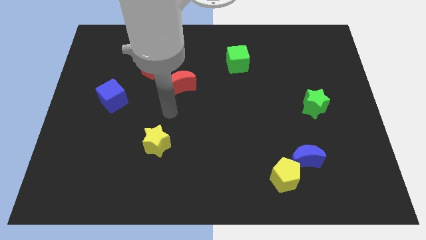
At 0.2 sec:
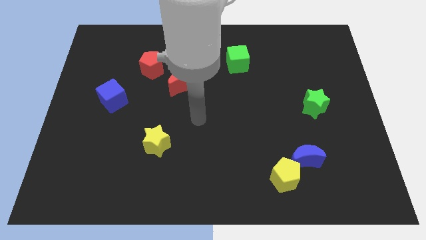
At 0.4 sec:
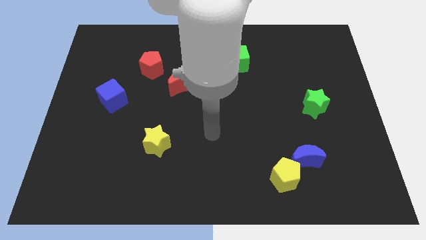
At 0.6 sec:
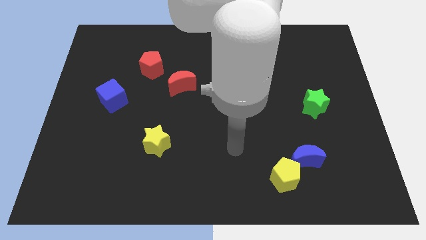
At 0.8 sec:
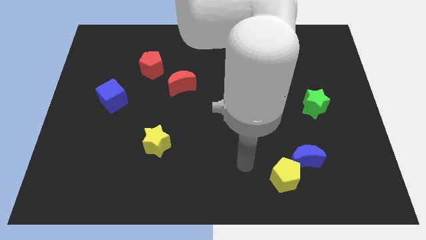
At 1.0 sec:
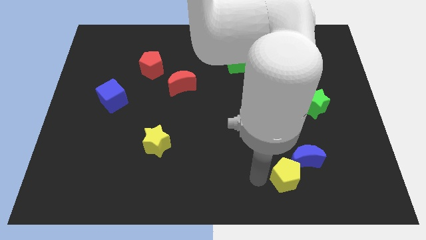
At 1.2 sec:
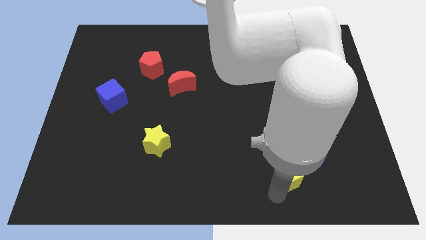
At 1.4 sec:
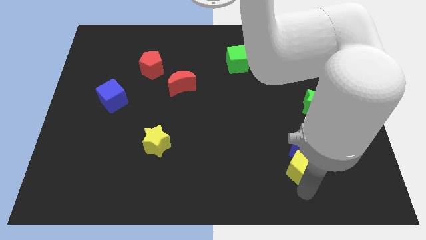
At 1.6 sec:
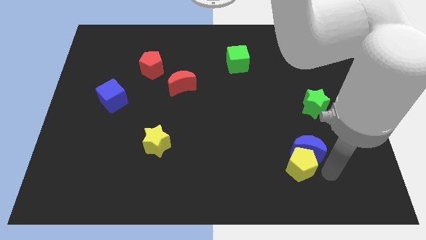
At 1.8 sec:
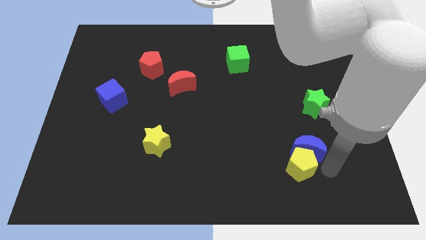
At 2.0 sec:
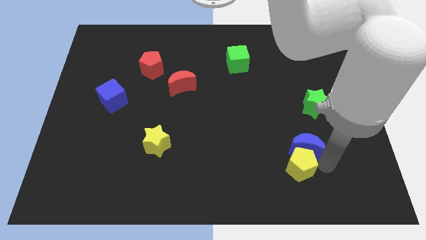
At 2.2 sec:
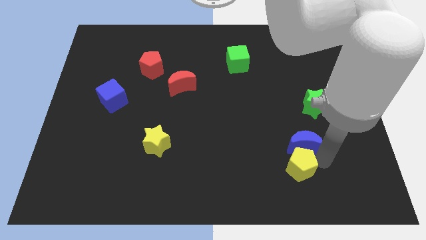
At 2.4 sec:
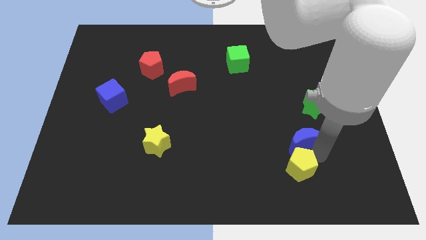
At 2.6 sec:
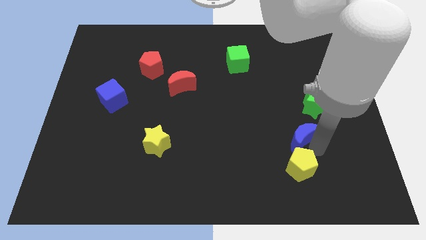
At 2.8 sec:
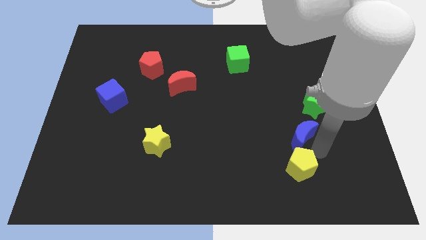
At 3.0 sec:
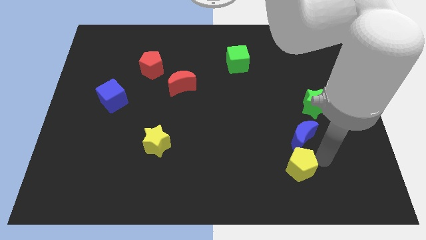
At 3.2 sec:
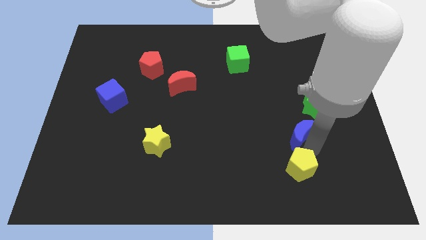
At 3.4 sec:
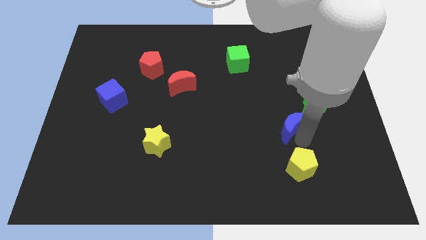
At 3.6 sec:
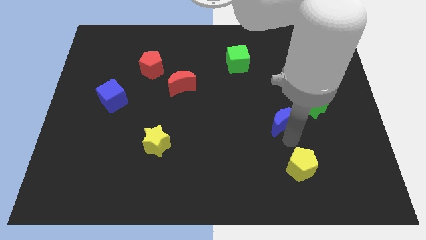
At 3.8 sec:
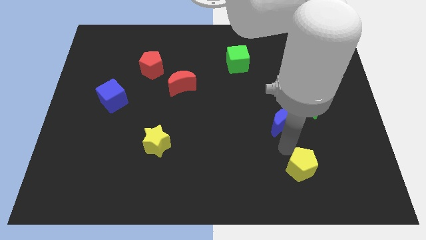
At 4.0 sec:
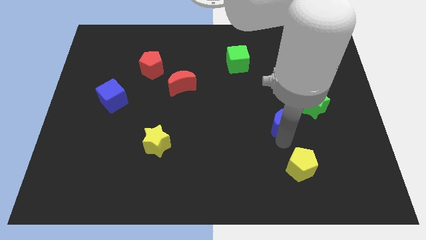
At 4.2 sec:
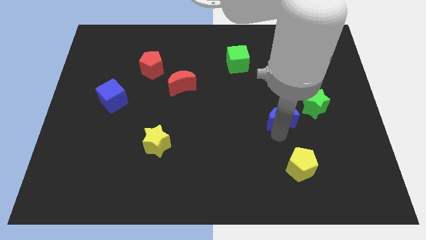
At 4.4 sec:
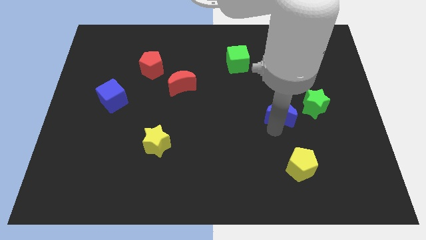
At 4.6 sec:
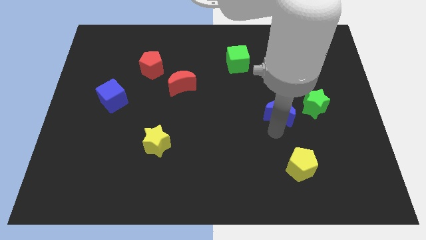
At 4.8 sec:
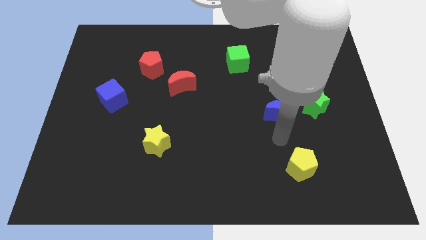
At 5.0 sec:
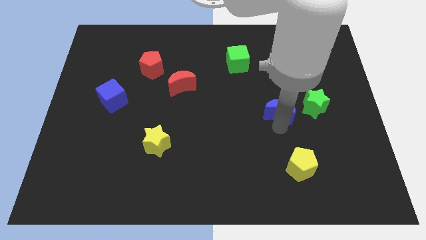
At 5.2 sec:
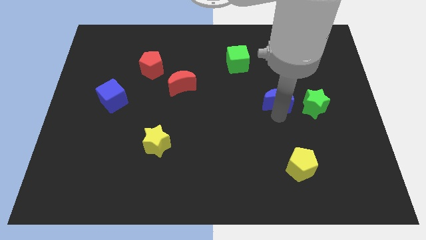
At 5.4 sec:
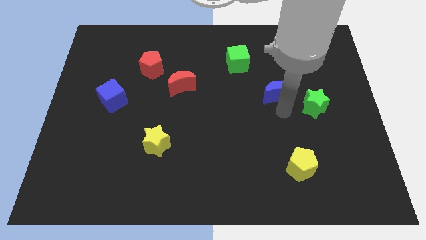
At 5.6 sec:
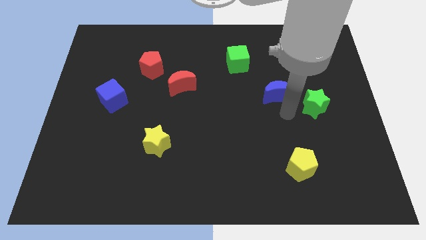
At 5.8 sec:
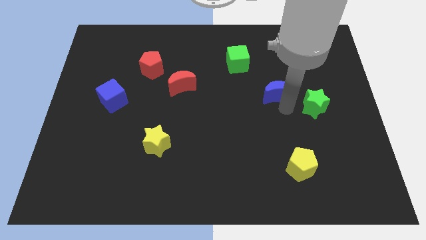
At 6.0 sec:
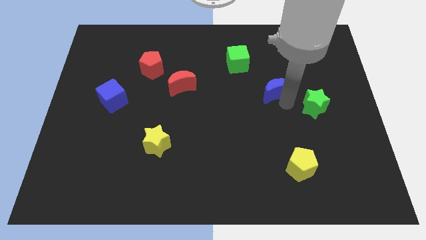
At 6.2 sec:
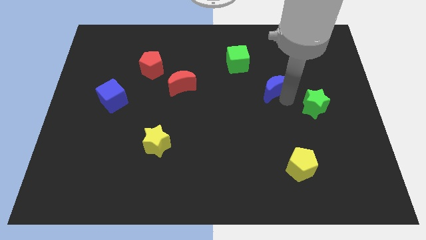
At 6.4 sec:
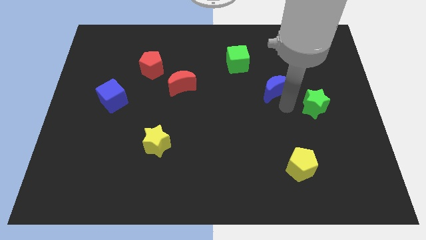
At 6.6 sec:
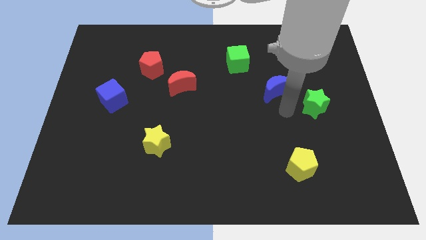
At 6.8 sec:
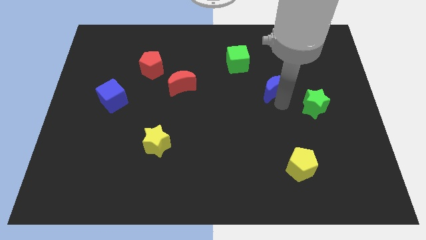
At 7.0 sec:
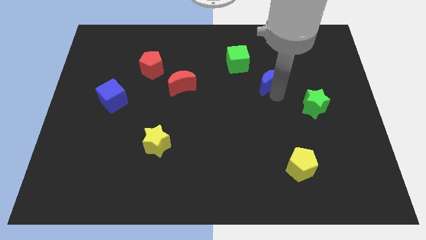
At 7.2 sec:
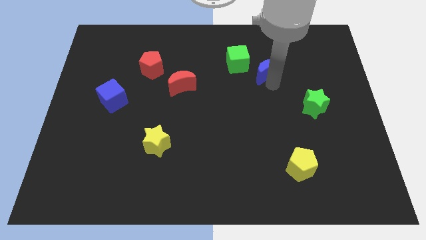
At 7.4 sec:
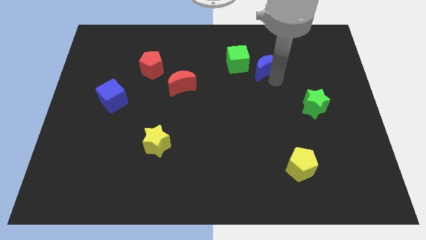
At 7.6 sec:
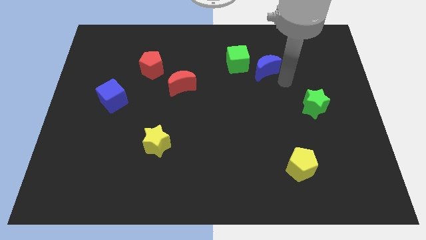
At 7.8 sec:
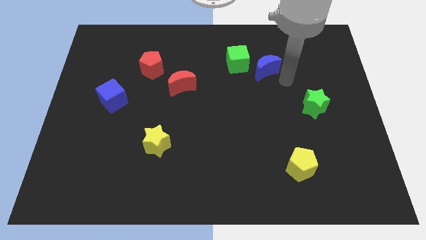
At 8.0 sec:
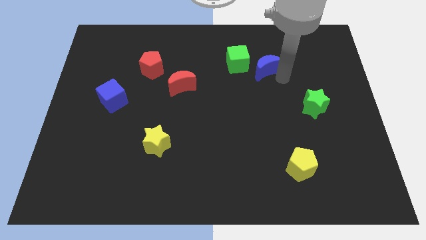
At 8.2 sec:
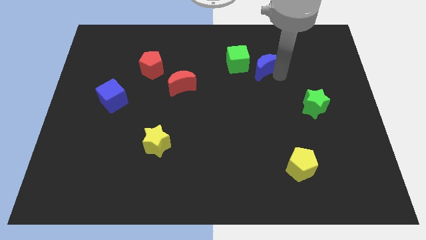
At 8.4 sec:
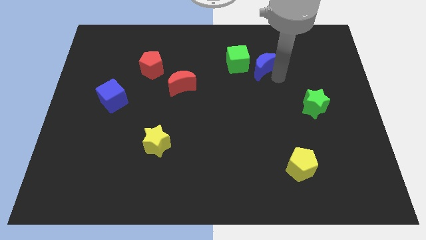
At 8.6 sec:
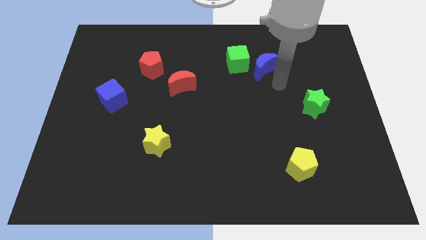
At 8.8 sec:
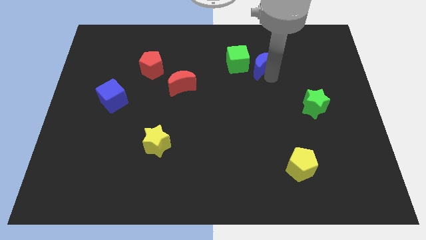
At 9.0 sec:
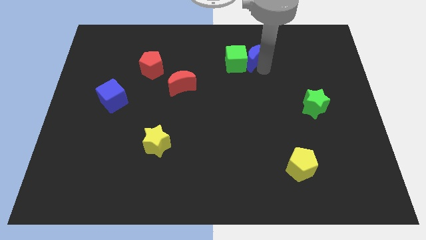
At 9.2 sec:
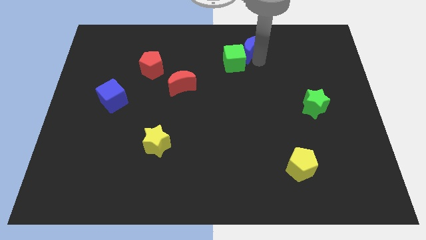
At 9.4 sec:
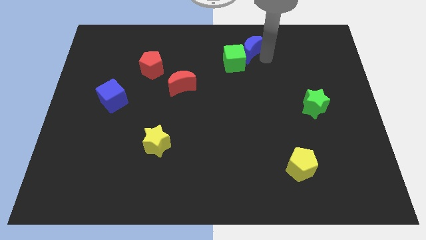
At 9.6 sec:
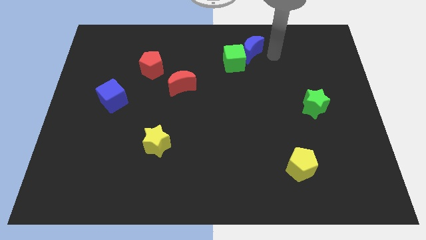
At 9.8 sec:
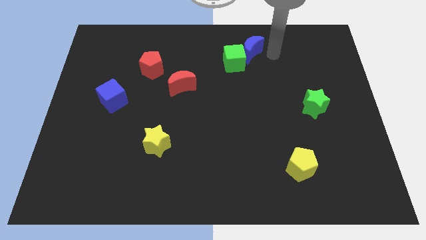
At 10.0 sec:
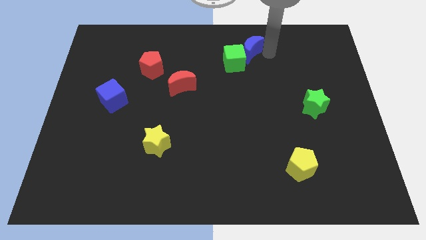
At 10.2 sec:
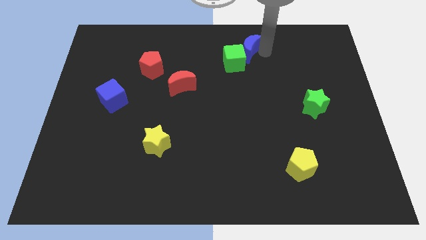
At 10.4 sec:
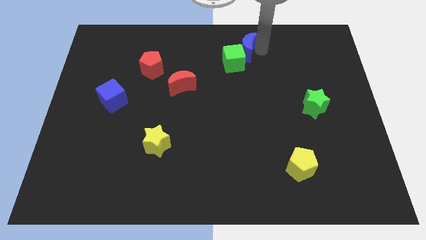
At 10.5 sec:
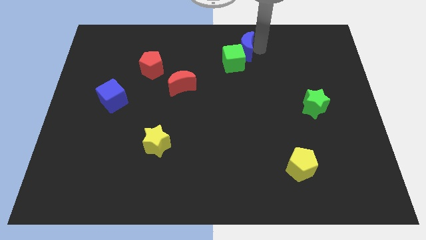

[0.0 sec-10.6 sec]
move the blue moon to the top side

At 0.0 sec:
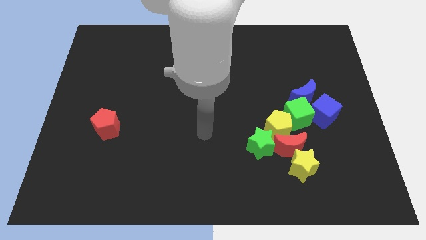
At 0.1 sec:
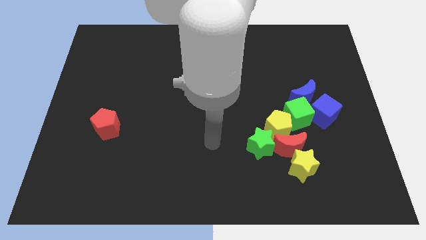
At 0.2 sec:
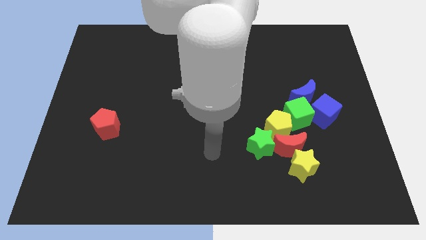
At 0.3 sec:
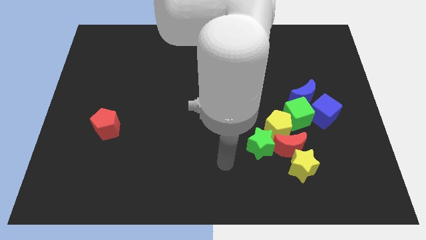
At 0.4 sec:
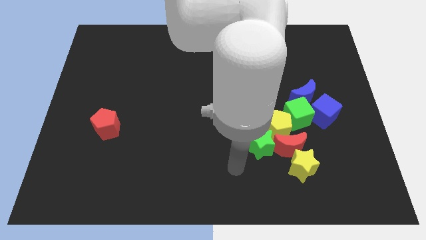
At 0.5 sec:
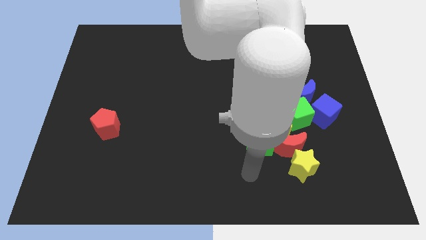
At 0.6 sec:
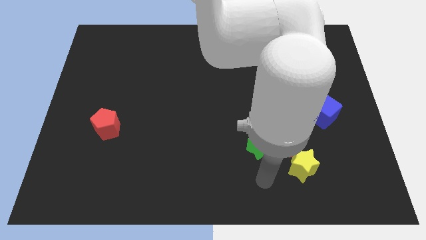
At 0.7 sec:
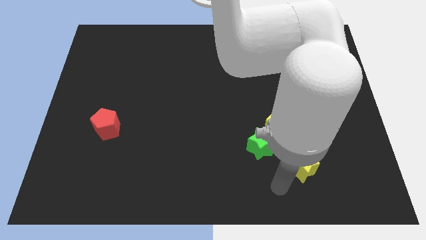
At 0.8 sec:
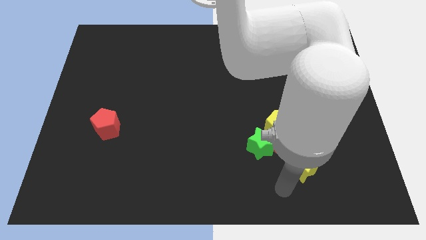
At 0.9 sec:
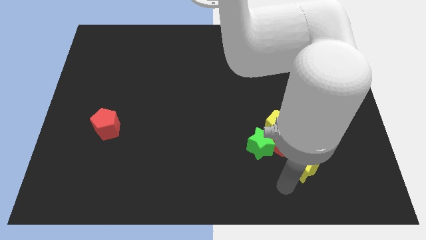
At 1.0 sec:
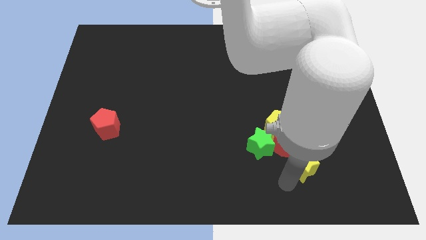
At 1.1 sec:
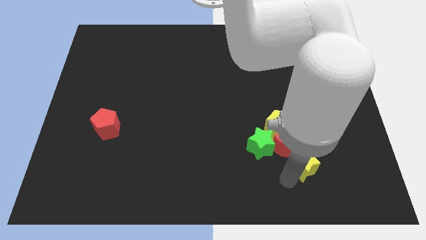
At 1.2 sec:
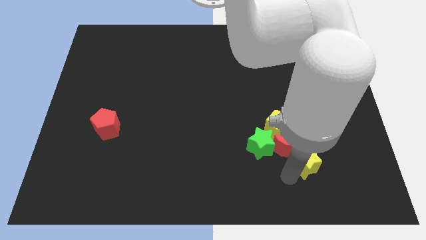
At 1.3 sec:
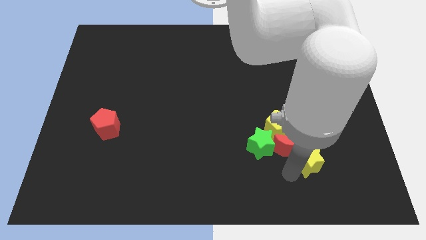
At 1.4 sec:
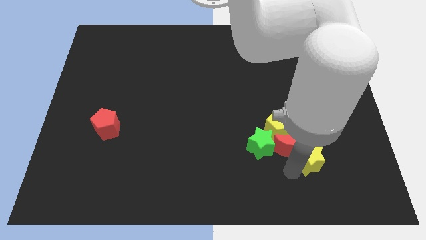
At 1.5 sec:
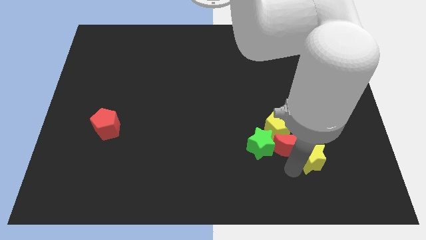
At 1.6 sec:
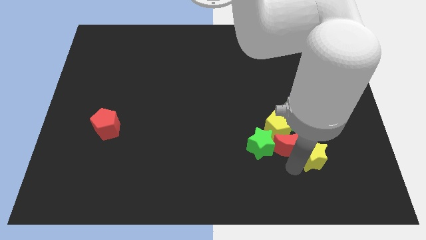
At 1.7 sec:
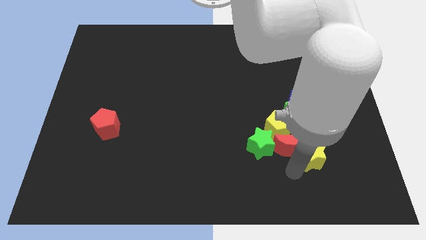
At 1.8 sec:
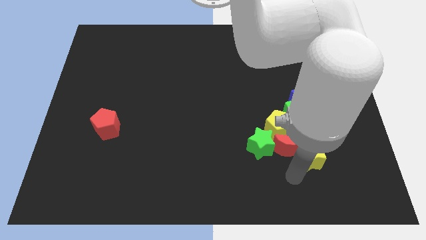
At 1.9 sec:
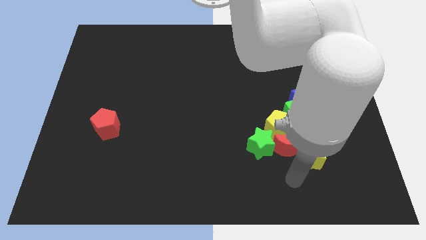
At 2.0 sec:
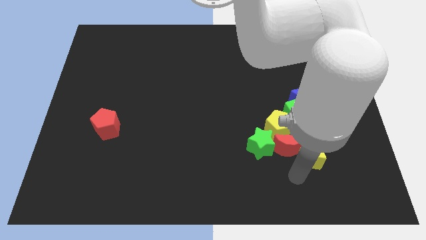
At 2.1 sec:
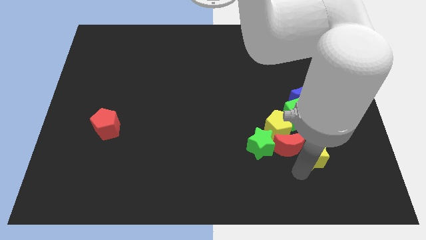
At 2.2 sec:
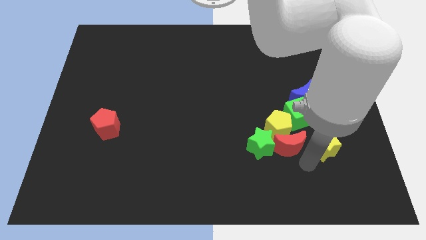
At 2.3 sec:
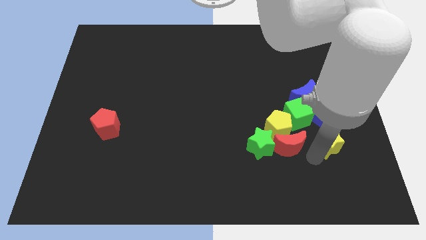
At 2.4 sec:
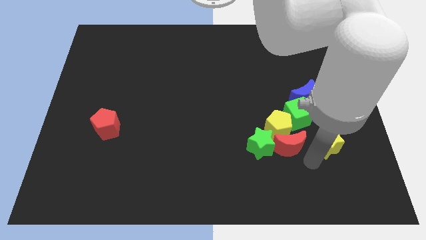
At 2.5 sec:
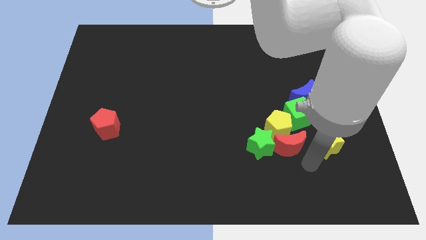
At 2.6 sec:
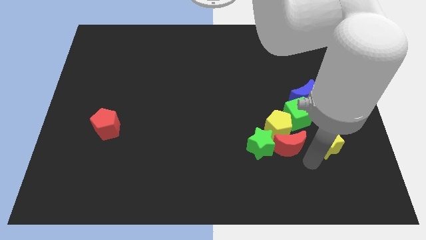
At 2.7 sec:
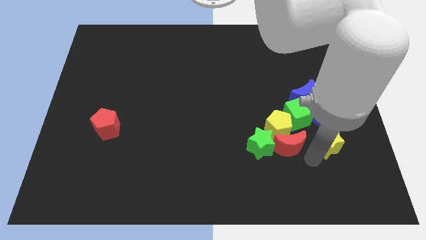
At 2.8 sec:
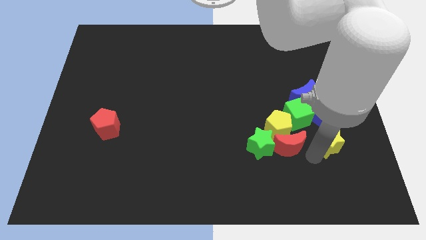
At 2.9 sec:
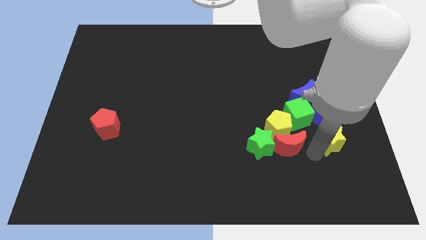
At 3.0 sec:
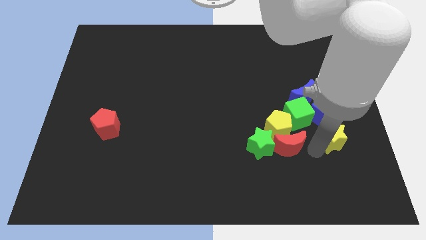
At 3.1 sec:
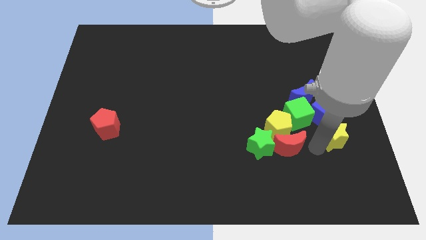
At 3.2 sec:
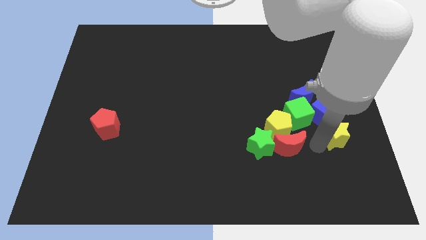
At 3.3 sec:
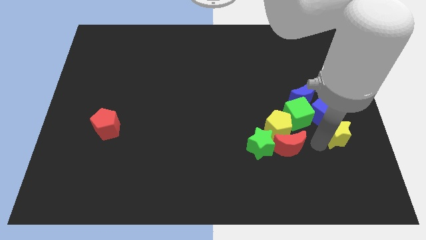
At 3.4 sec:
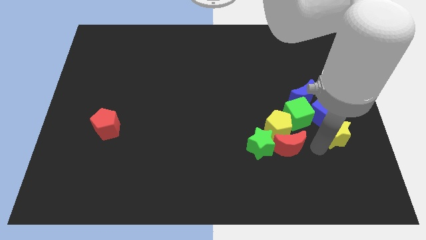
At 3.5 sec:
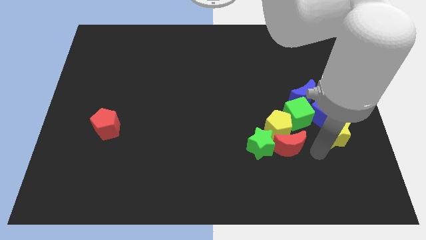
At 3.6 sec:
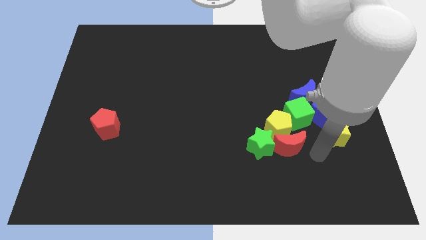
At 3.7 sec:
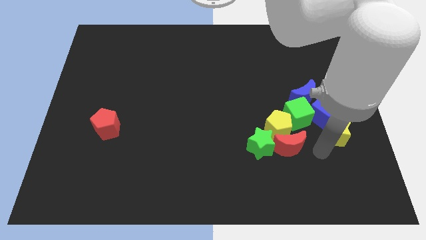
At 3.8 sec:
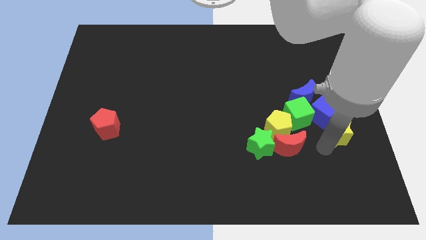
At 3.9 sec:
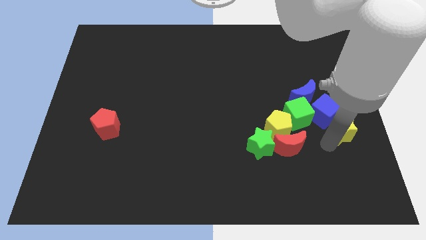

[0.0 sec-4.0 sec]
put the yellow star to the center right
